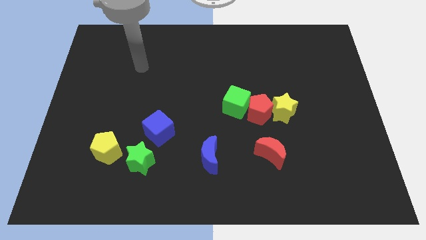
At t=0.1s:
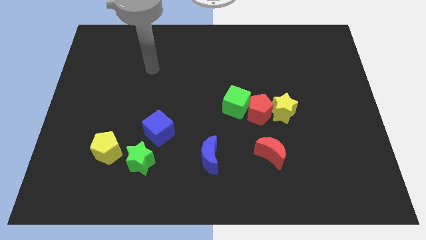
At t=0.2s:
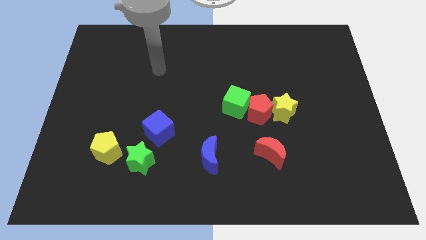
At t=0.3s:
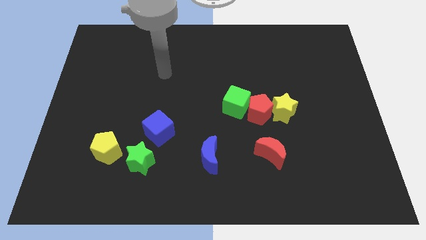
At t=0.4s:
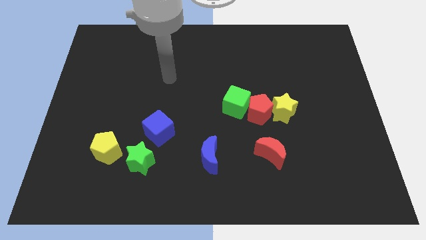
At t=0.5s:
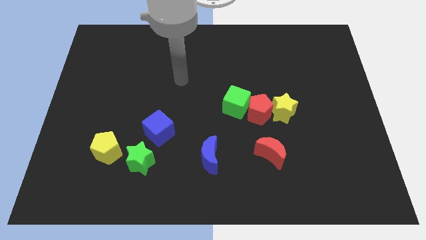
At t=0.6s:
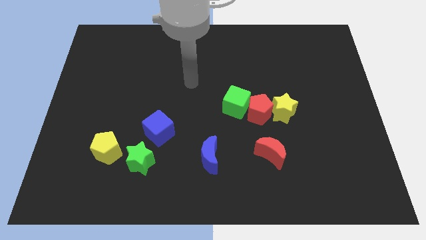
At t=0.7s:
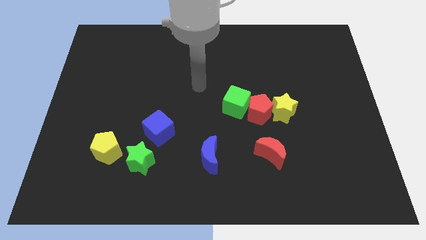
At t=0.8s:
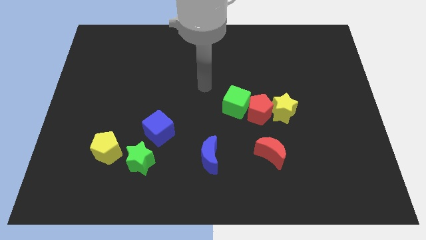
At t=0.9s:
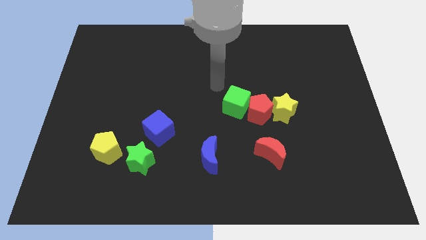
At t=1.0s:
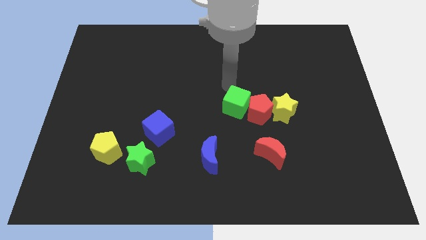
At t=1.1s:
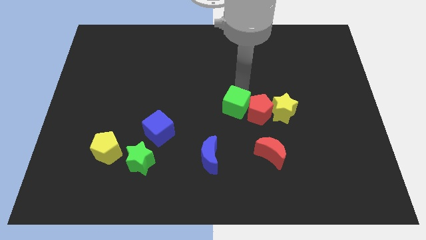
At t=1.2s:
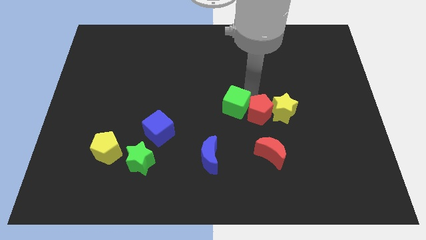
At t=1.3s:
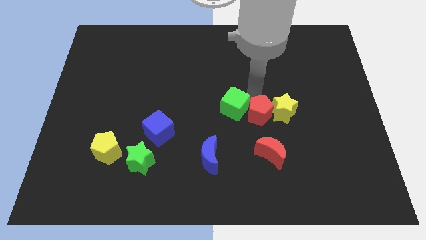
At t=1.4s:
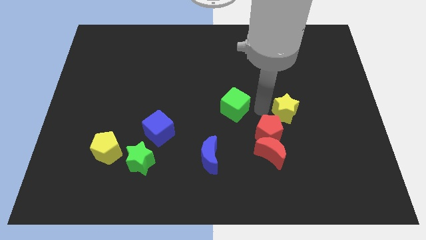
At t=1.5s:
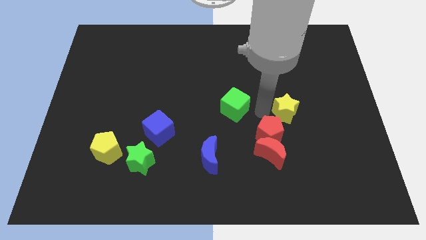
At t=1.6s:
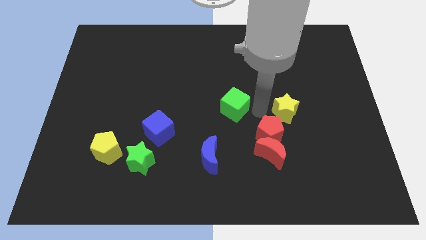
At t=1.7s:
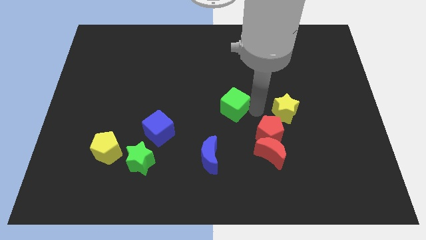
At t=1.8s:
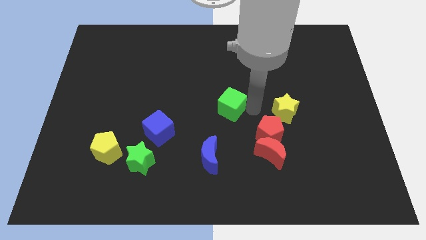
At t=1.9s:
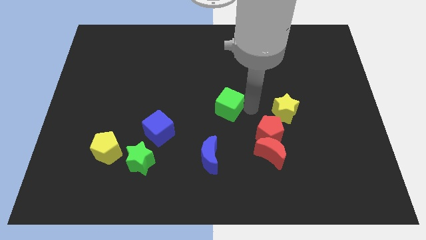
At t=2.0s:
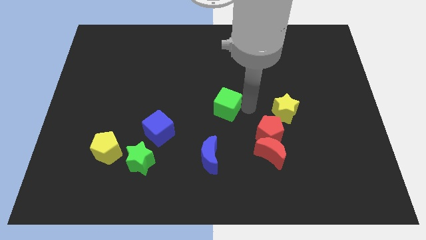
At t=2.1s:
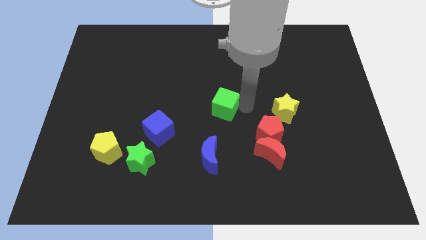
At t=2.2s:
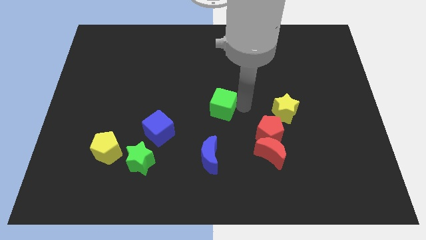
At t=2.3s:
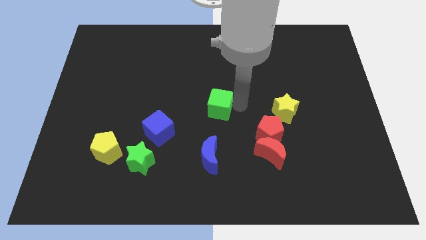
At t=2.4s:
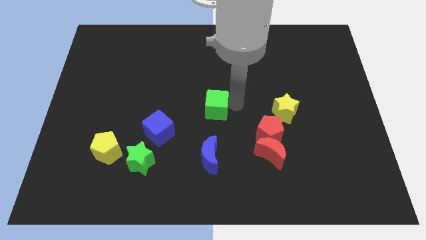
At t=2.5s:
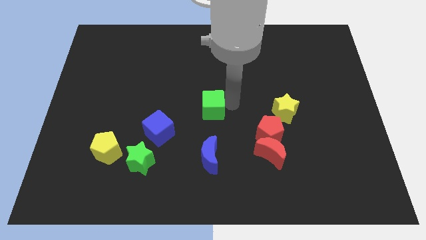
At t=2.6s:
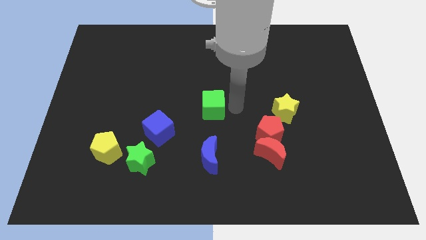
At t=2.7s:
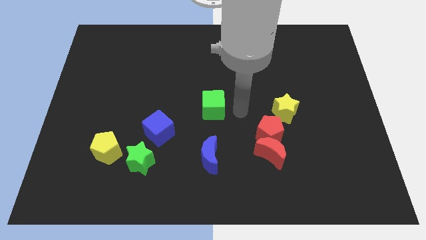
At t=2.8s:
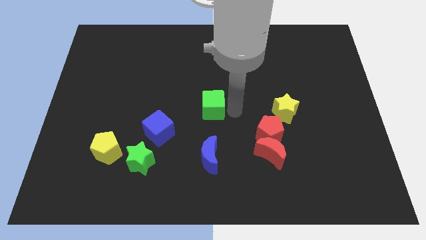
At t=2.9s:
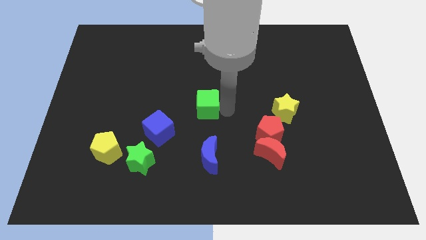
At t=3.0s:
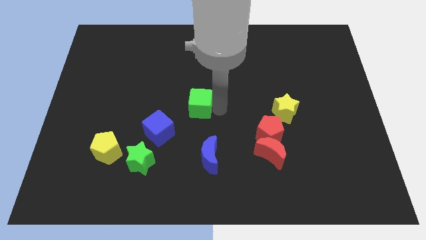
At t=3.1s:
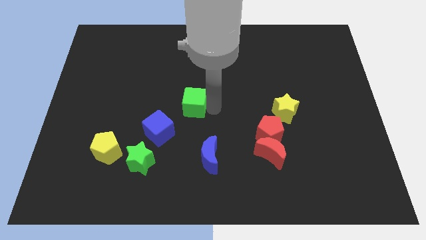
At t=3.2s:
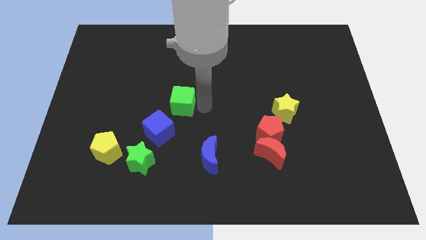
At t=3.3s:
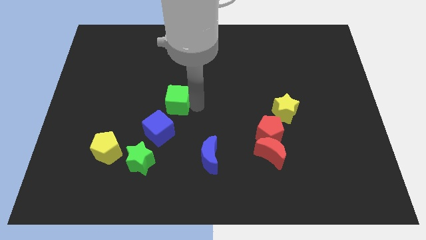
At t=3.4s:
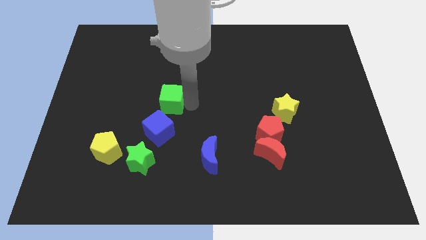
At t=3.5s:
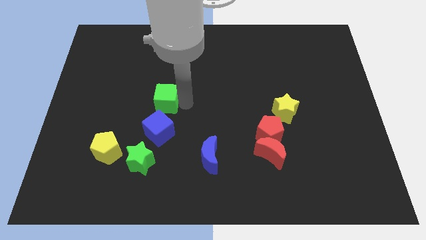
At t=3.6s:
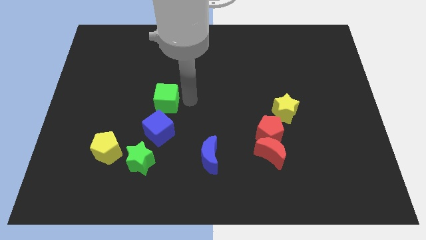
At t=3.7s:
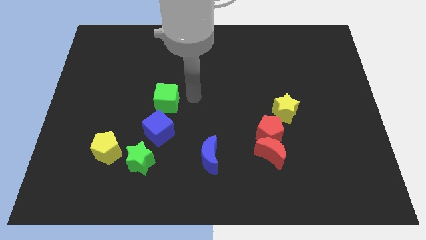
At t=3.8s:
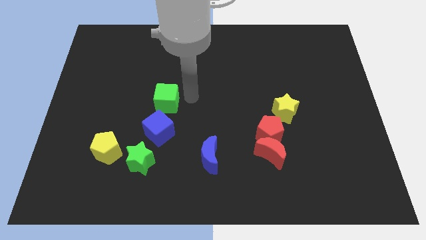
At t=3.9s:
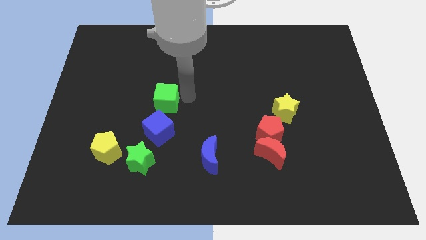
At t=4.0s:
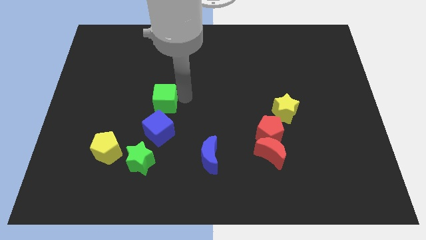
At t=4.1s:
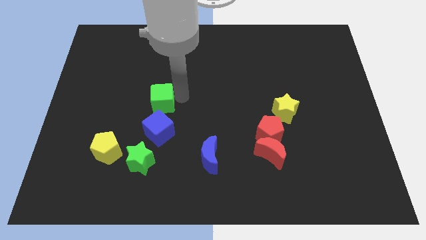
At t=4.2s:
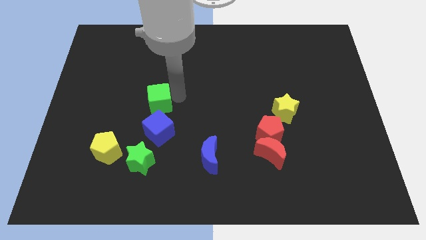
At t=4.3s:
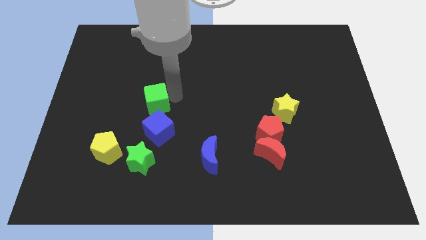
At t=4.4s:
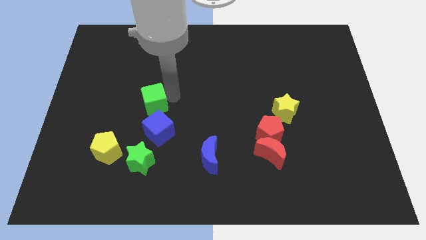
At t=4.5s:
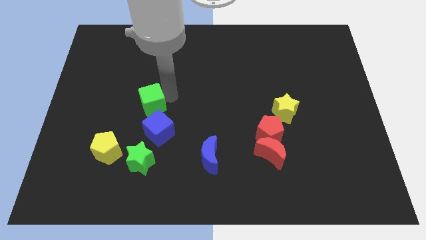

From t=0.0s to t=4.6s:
move the green cube left

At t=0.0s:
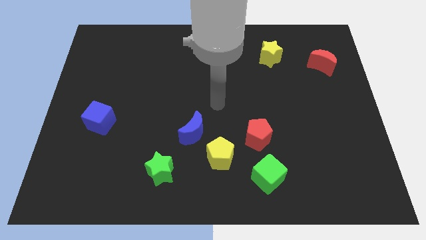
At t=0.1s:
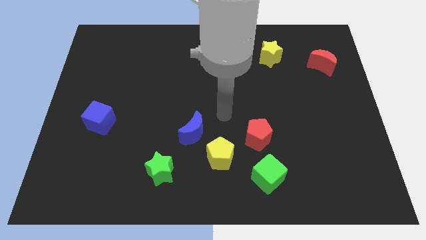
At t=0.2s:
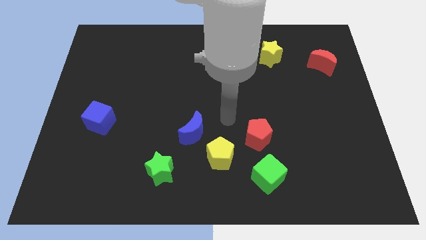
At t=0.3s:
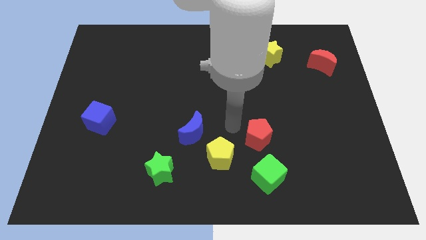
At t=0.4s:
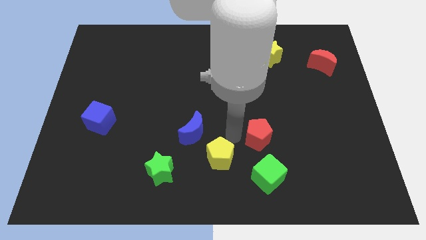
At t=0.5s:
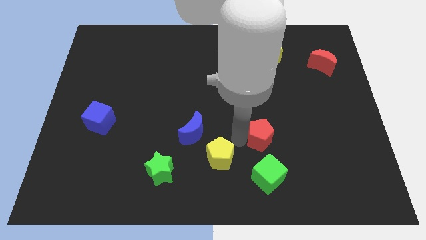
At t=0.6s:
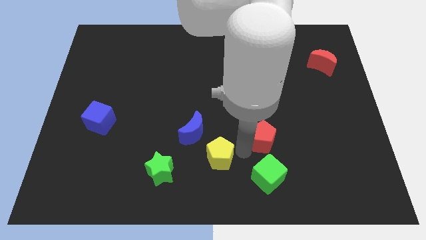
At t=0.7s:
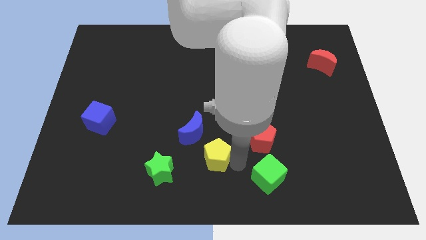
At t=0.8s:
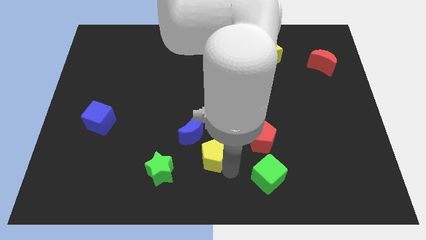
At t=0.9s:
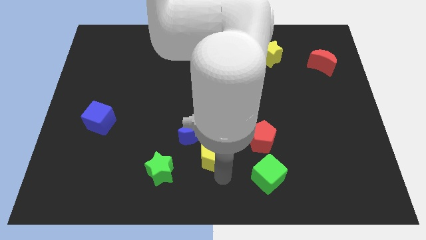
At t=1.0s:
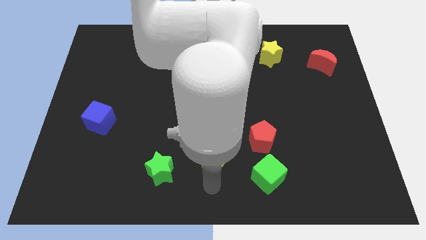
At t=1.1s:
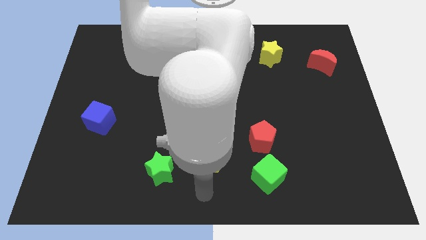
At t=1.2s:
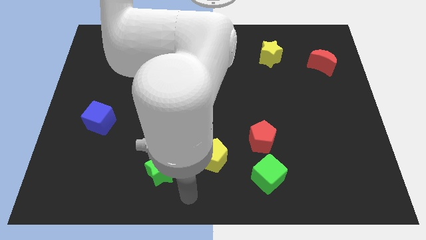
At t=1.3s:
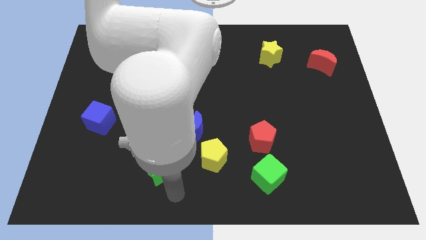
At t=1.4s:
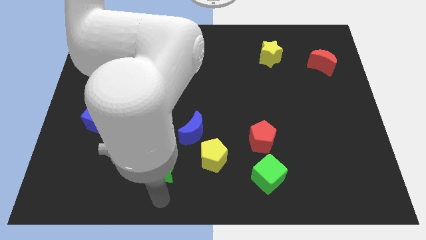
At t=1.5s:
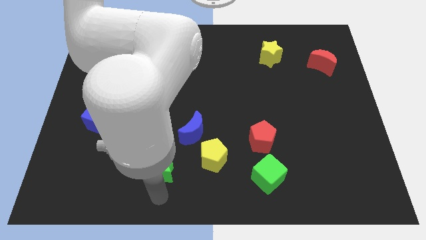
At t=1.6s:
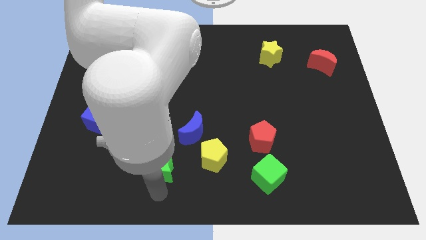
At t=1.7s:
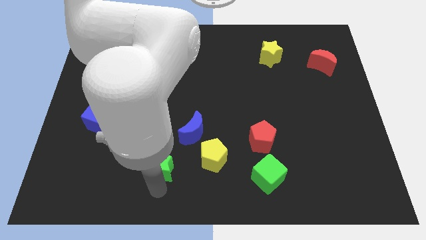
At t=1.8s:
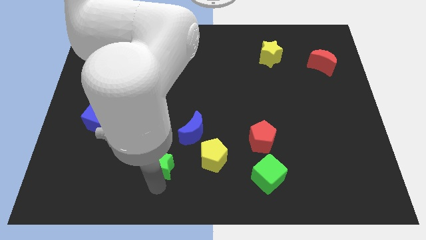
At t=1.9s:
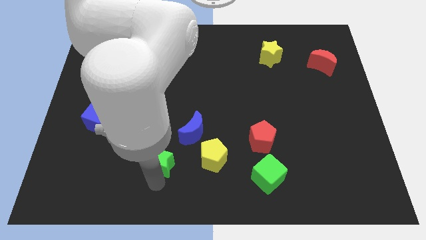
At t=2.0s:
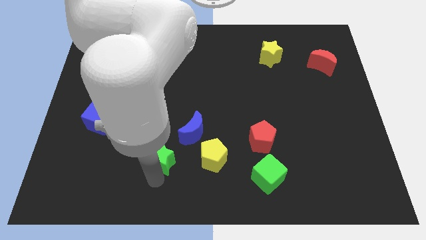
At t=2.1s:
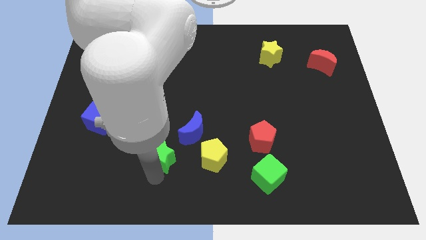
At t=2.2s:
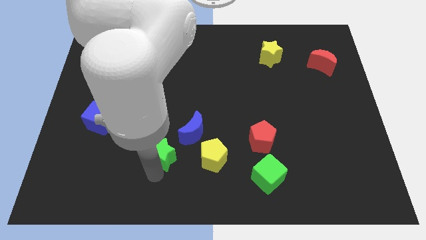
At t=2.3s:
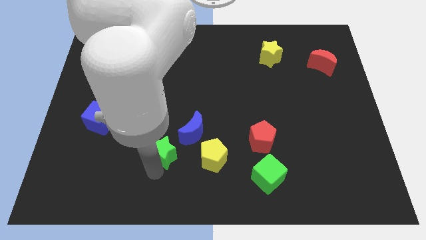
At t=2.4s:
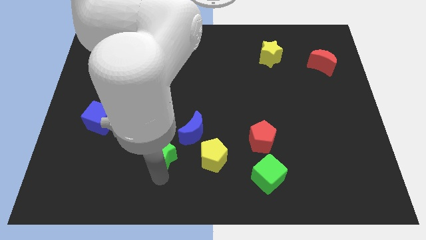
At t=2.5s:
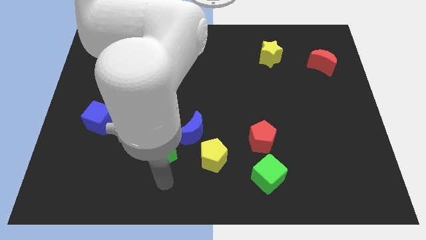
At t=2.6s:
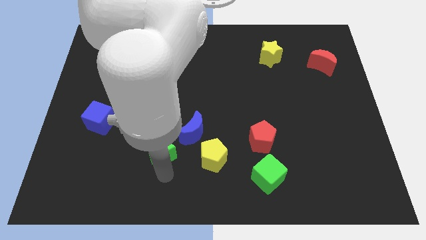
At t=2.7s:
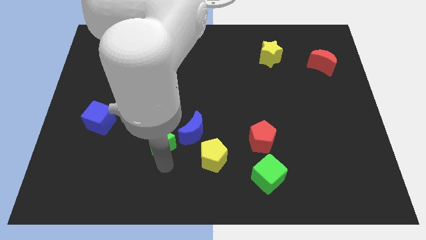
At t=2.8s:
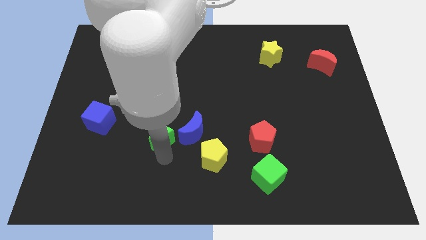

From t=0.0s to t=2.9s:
slightly slide the green star upwards

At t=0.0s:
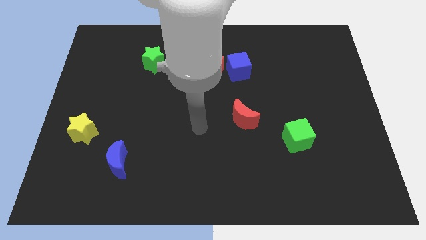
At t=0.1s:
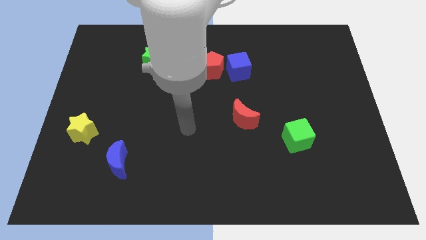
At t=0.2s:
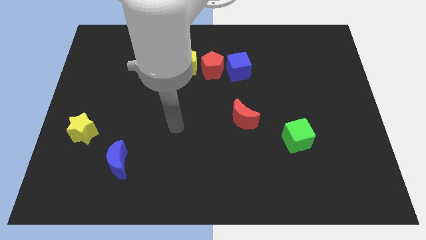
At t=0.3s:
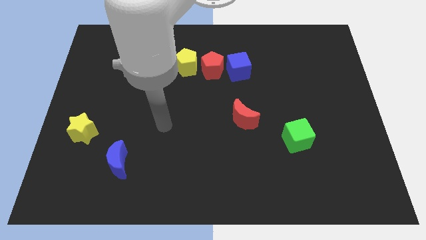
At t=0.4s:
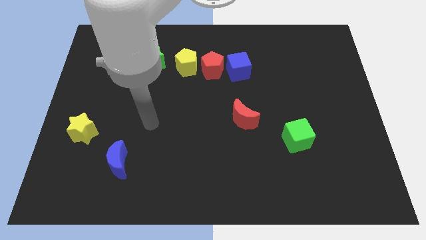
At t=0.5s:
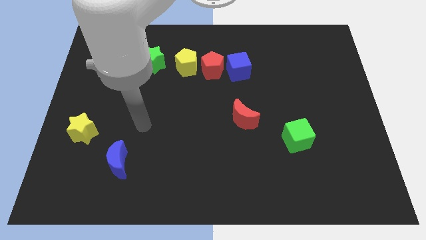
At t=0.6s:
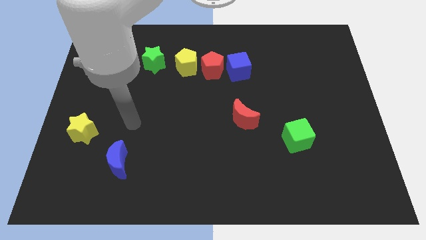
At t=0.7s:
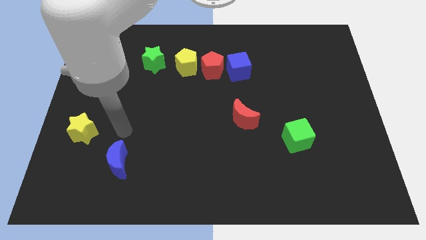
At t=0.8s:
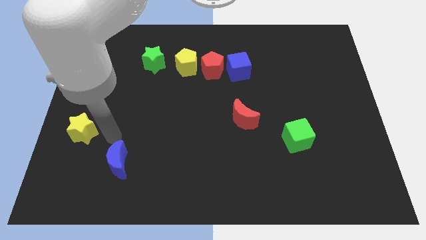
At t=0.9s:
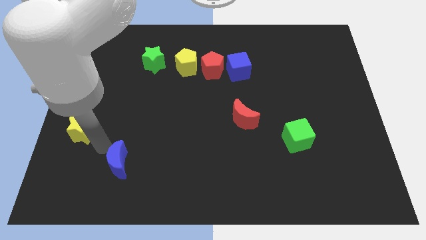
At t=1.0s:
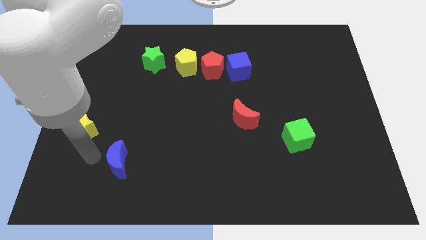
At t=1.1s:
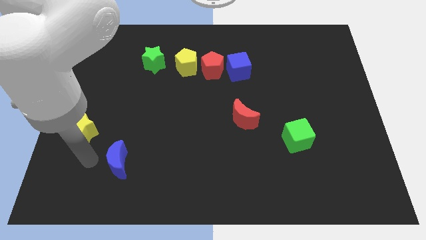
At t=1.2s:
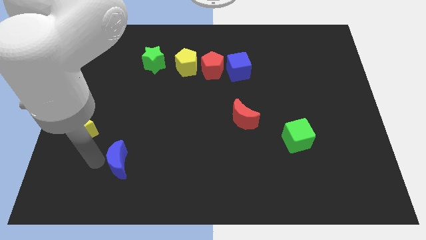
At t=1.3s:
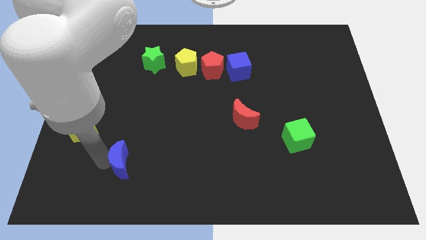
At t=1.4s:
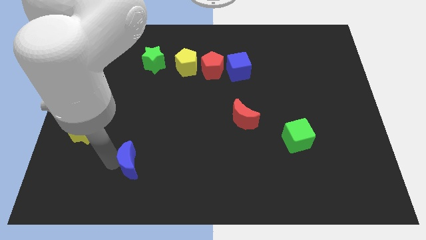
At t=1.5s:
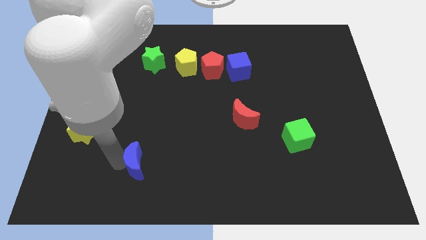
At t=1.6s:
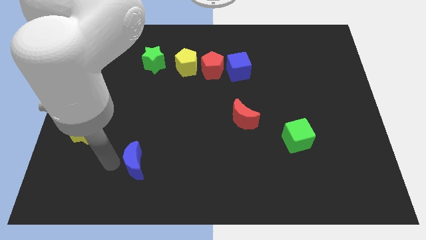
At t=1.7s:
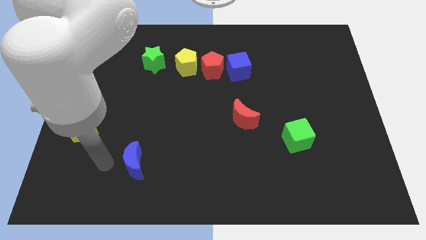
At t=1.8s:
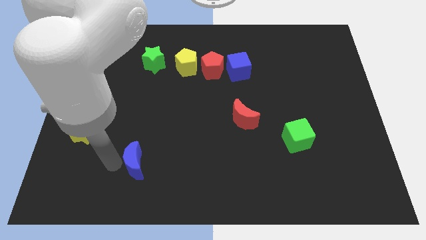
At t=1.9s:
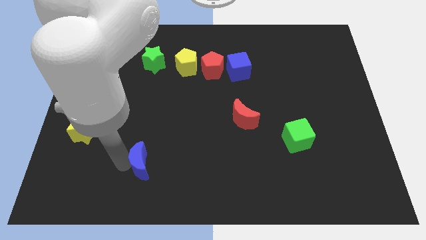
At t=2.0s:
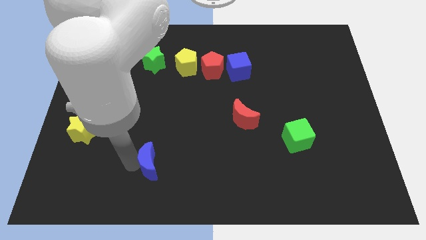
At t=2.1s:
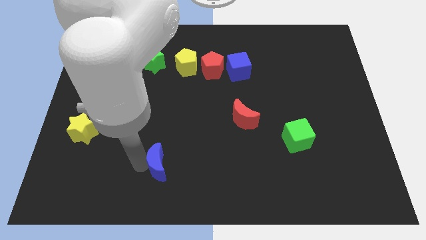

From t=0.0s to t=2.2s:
slightly push the blue moon to the right
